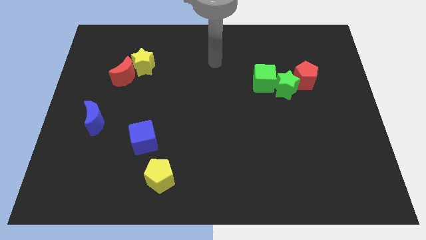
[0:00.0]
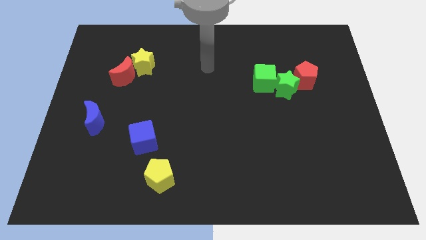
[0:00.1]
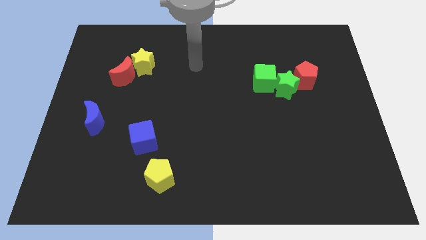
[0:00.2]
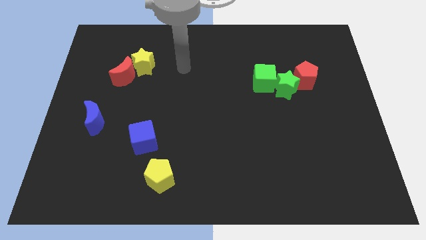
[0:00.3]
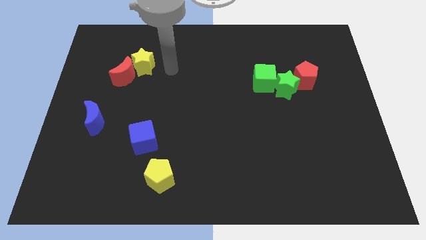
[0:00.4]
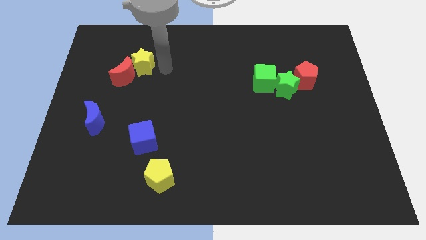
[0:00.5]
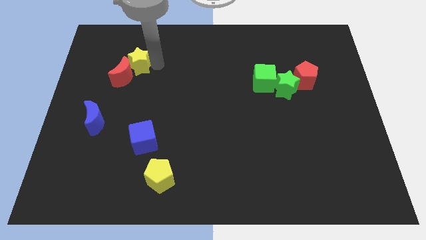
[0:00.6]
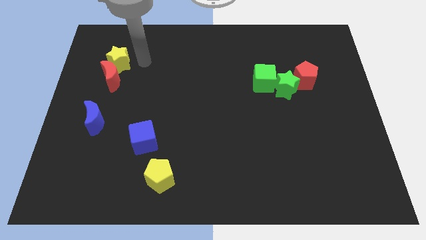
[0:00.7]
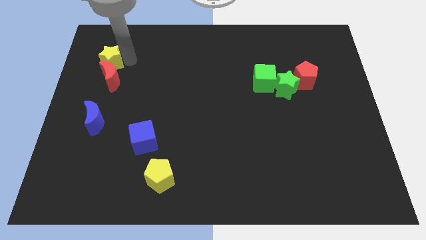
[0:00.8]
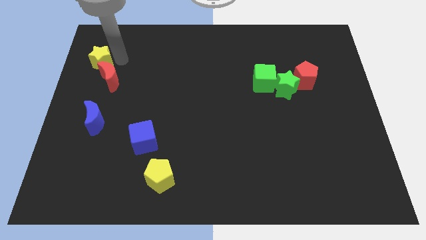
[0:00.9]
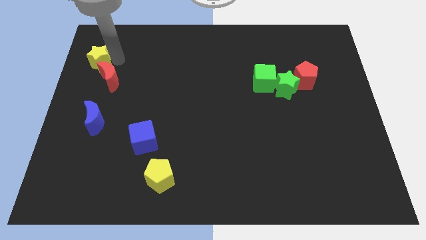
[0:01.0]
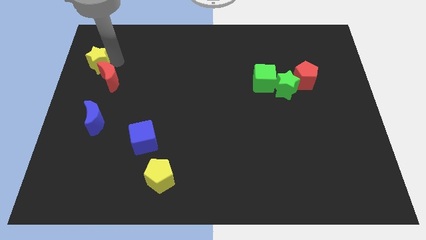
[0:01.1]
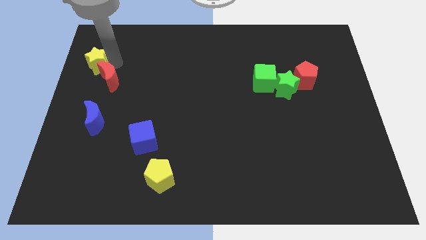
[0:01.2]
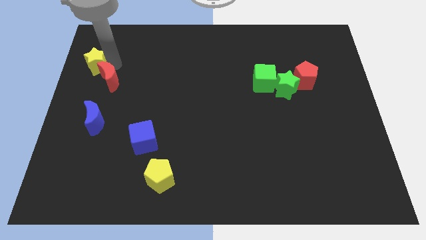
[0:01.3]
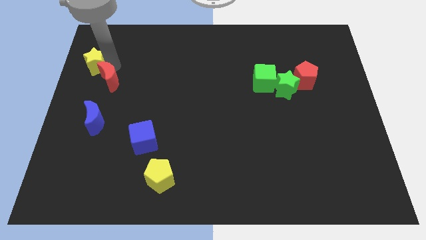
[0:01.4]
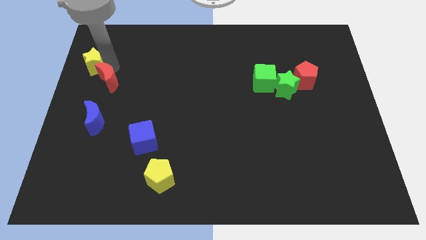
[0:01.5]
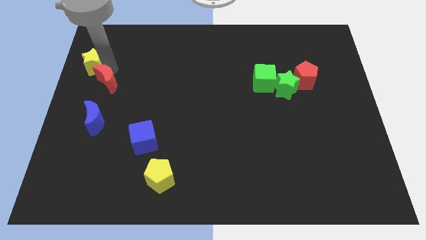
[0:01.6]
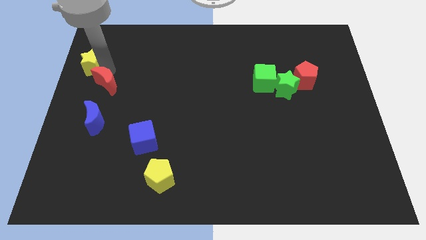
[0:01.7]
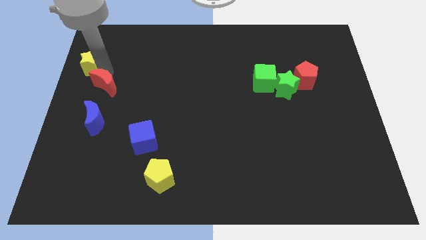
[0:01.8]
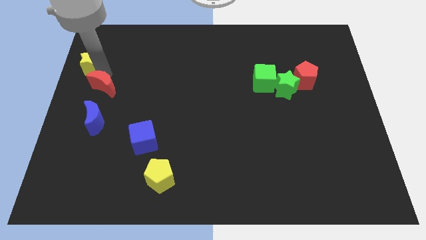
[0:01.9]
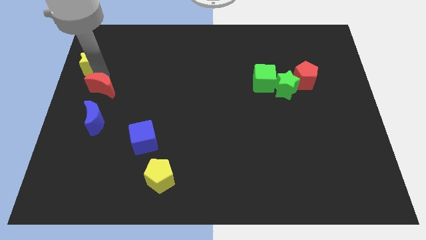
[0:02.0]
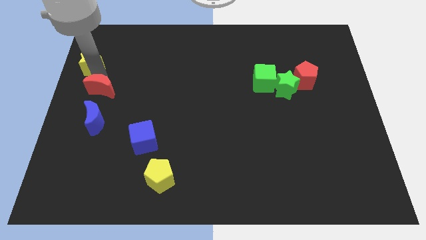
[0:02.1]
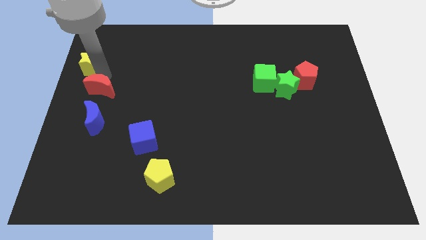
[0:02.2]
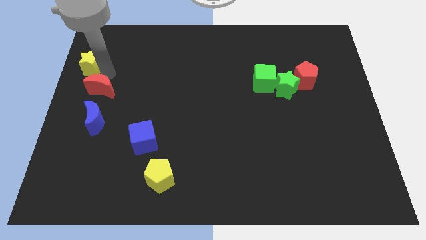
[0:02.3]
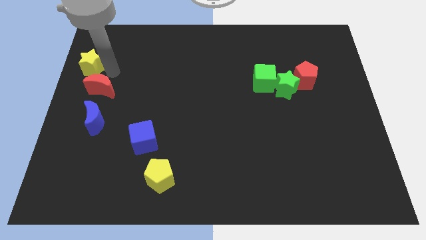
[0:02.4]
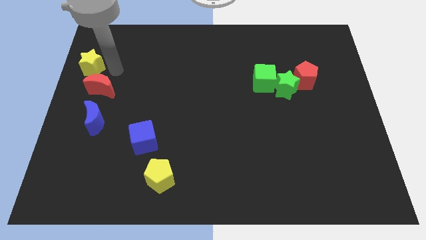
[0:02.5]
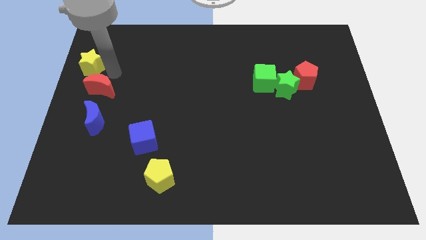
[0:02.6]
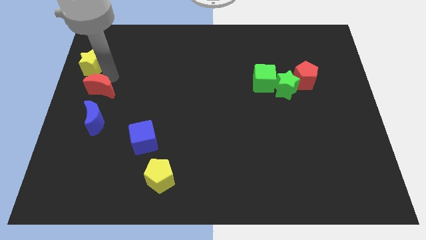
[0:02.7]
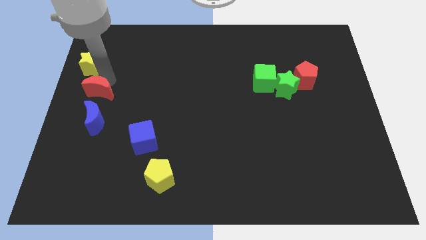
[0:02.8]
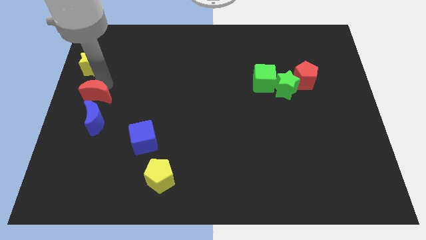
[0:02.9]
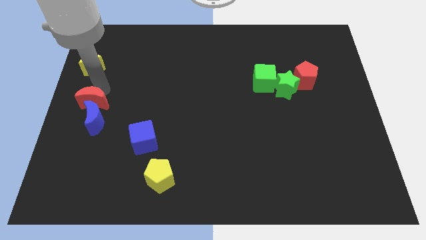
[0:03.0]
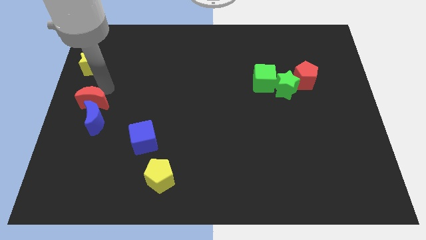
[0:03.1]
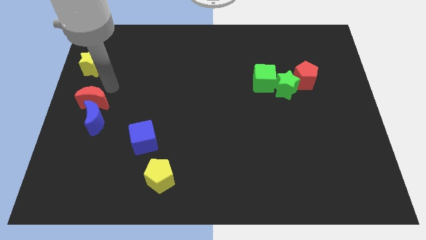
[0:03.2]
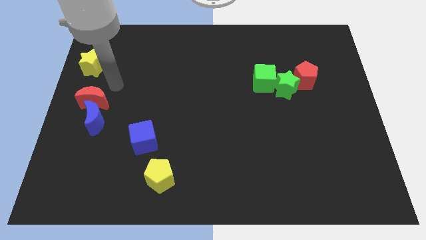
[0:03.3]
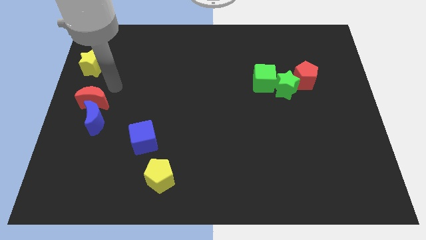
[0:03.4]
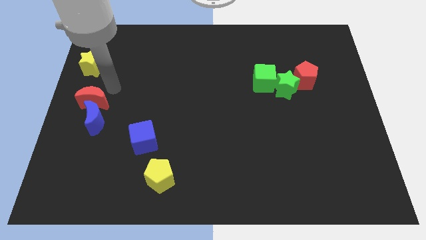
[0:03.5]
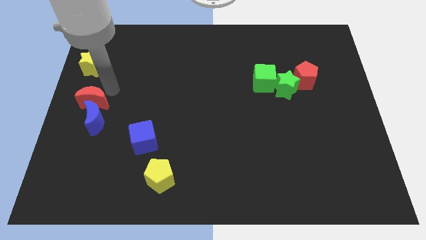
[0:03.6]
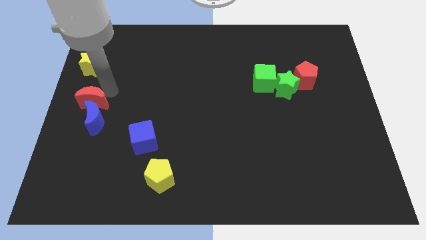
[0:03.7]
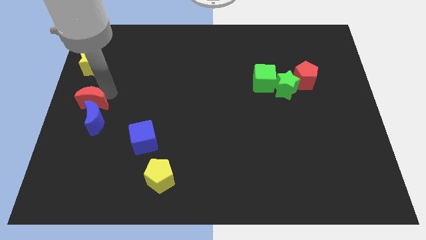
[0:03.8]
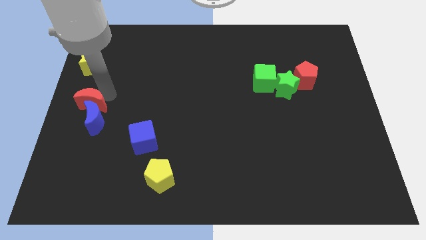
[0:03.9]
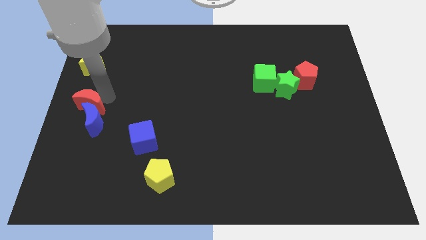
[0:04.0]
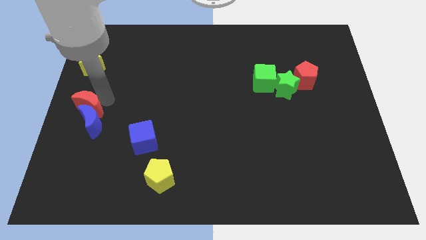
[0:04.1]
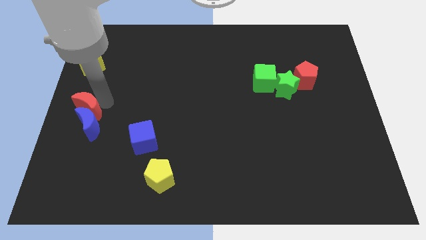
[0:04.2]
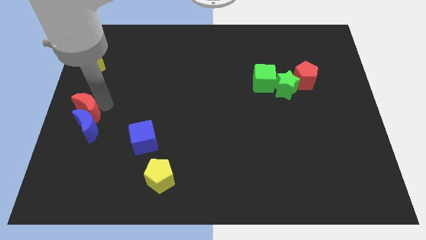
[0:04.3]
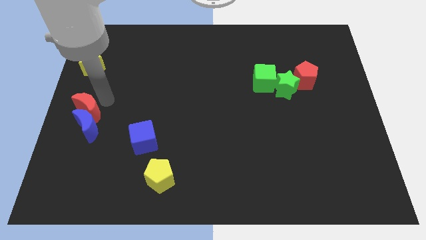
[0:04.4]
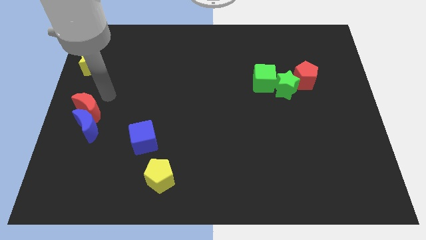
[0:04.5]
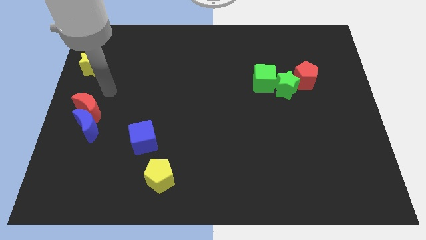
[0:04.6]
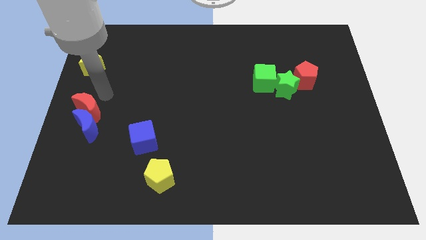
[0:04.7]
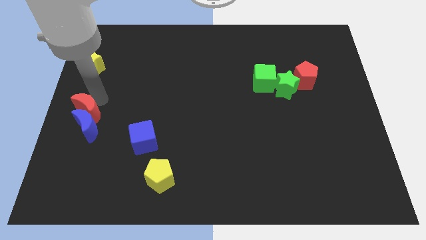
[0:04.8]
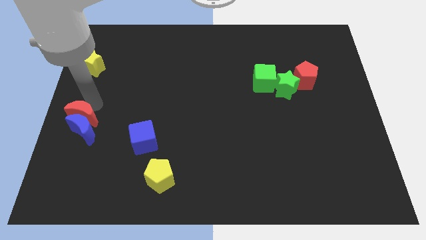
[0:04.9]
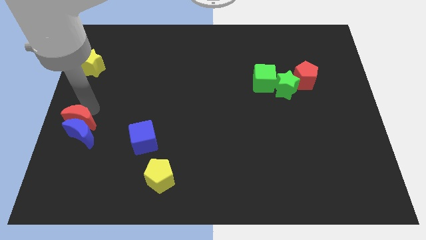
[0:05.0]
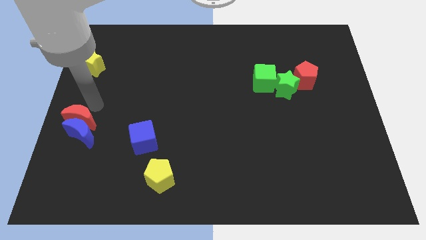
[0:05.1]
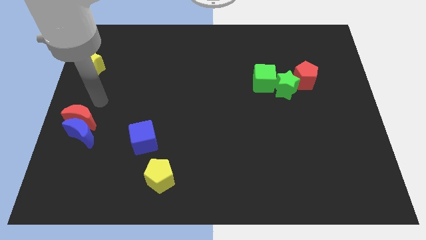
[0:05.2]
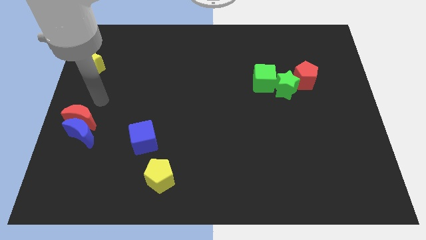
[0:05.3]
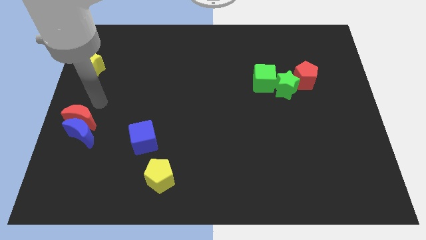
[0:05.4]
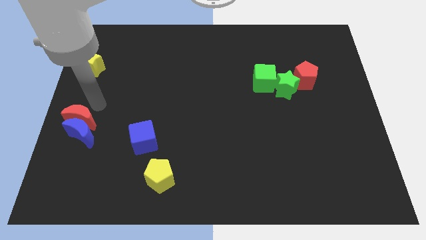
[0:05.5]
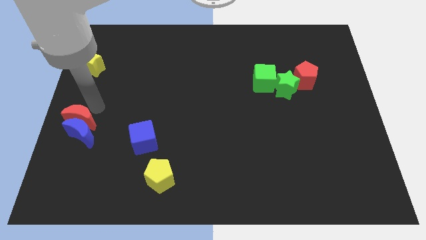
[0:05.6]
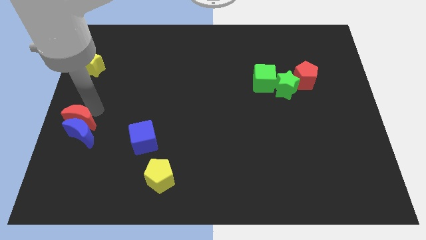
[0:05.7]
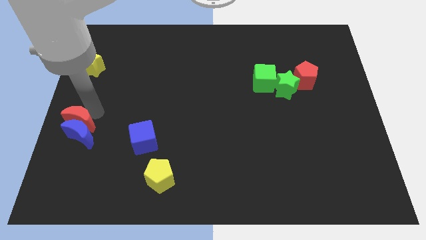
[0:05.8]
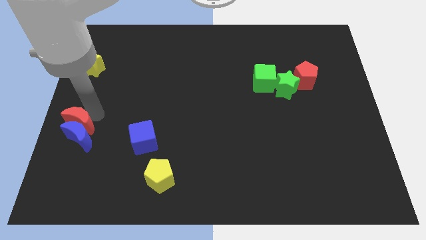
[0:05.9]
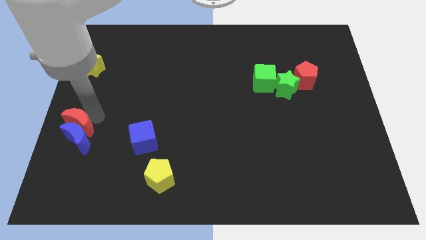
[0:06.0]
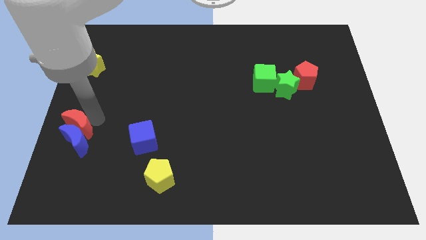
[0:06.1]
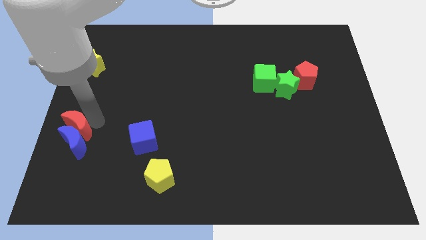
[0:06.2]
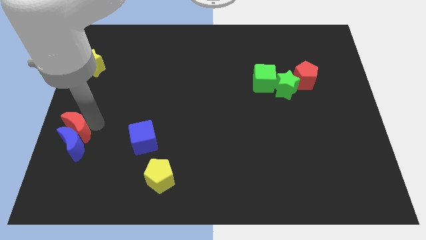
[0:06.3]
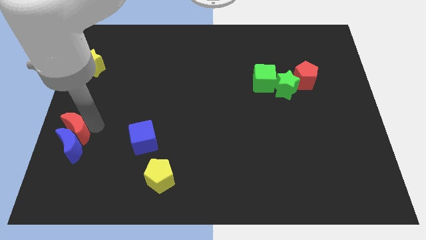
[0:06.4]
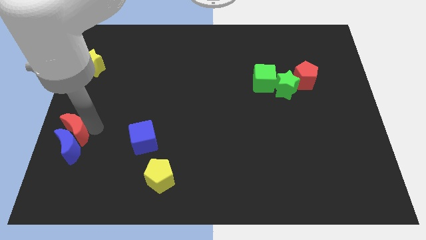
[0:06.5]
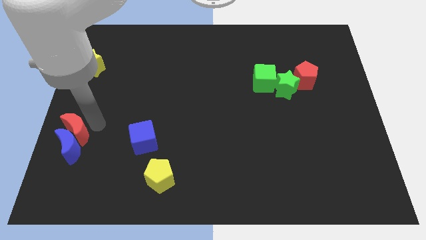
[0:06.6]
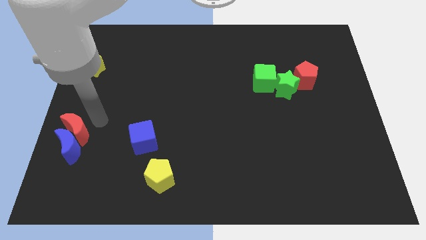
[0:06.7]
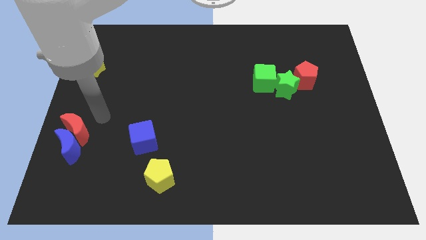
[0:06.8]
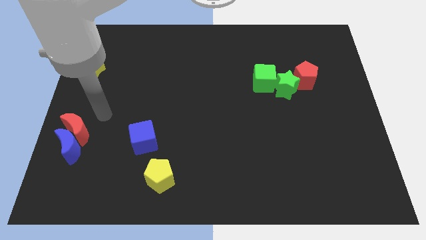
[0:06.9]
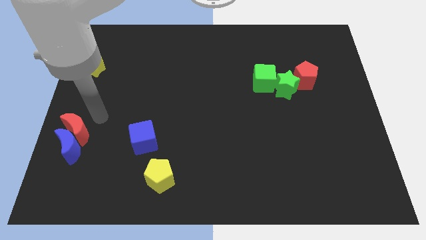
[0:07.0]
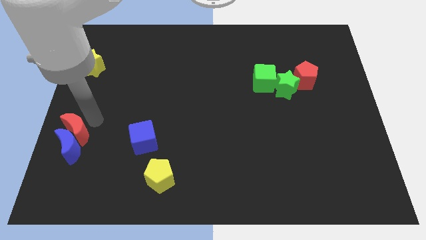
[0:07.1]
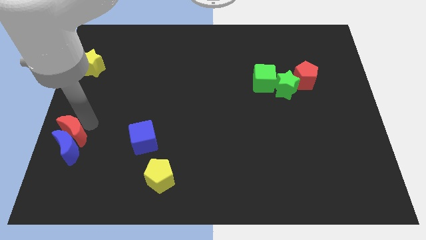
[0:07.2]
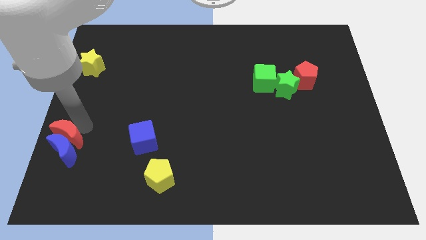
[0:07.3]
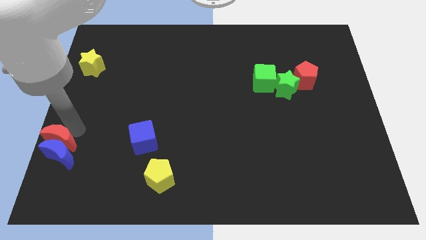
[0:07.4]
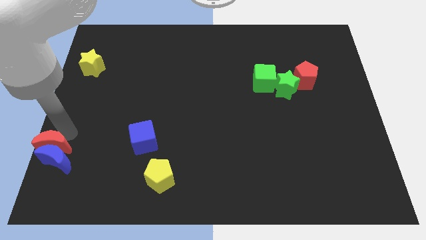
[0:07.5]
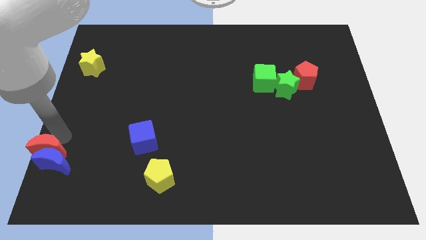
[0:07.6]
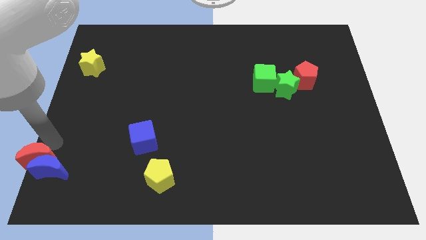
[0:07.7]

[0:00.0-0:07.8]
move the red moon to the bottom left corner
